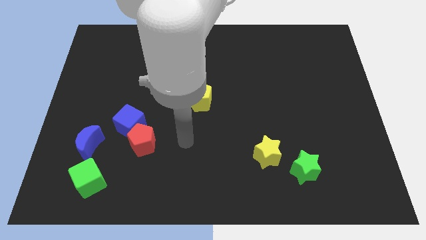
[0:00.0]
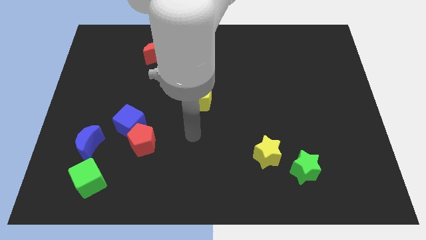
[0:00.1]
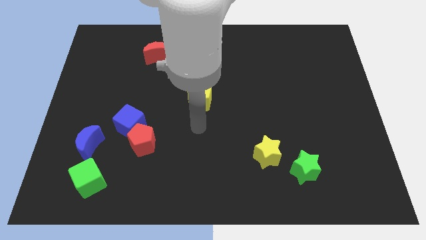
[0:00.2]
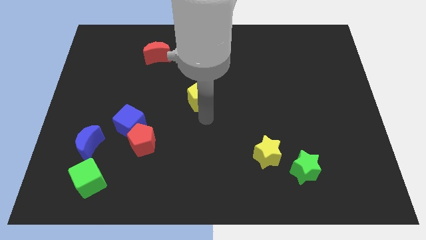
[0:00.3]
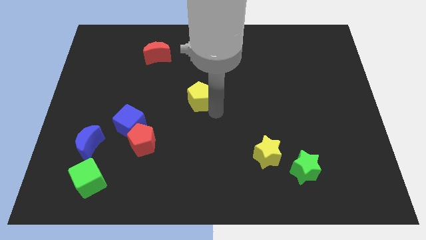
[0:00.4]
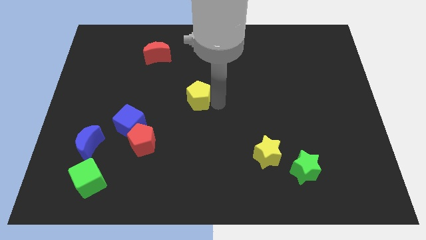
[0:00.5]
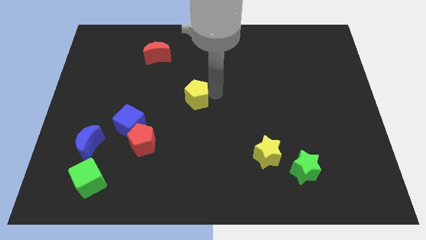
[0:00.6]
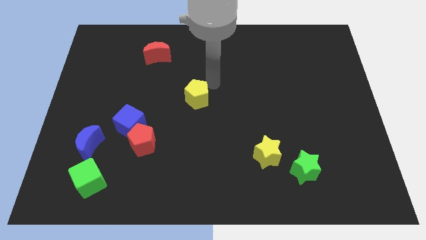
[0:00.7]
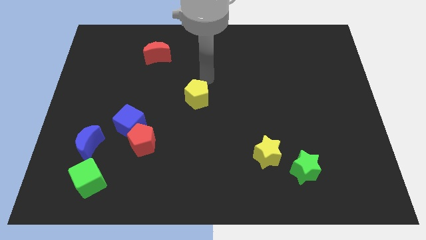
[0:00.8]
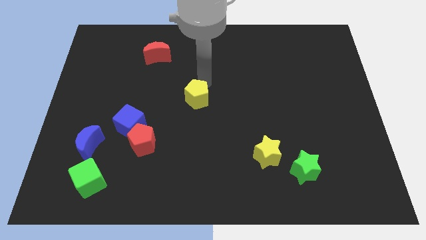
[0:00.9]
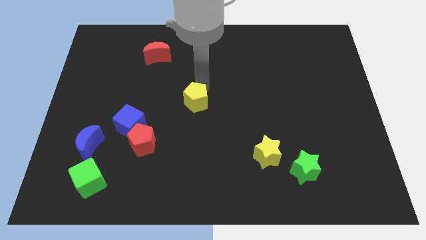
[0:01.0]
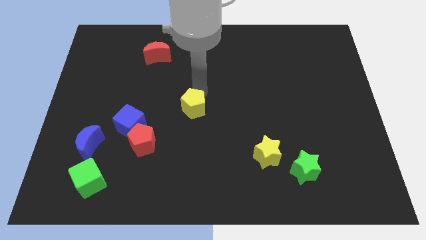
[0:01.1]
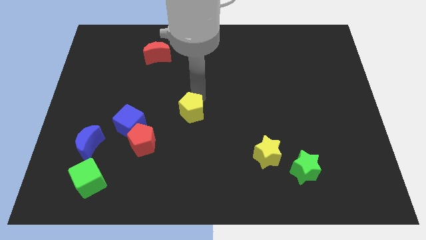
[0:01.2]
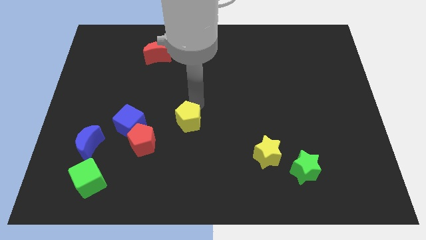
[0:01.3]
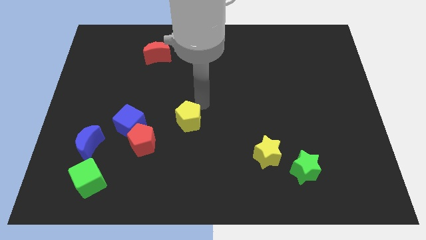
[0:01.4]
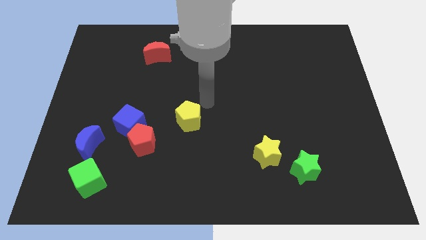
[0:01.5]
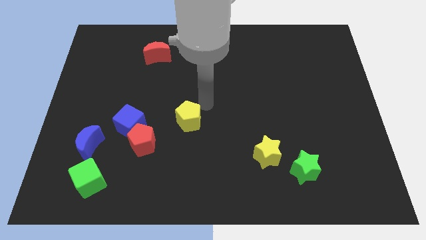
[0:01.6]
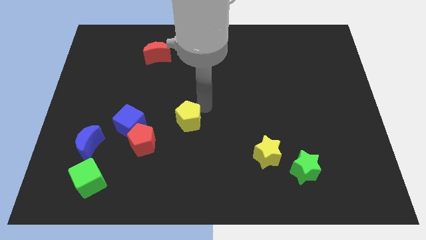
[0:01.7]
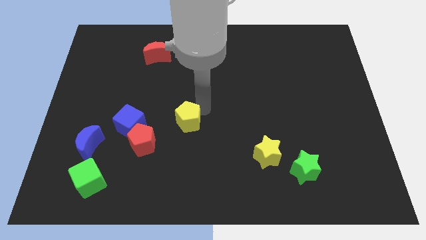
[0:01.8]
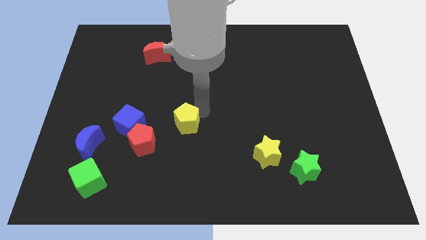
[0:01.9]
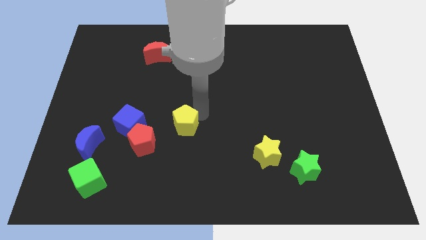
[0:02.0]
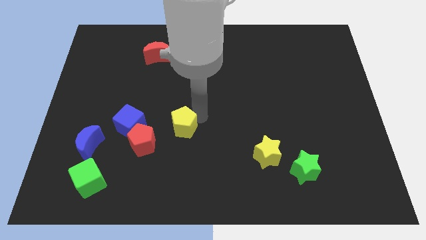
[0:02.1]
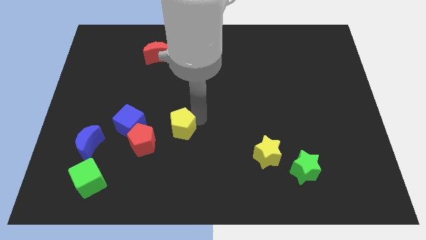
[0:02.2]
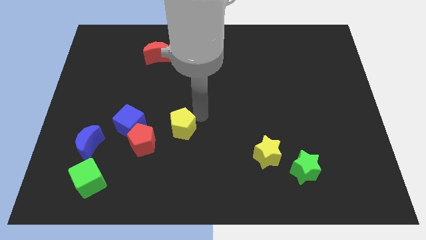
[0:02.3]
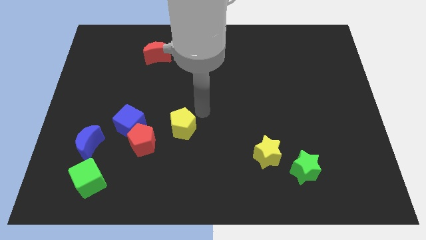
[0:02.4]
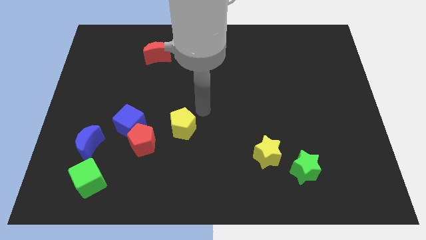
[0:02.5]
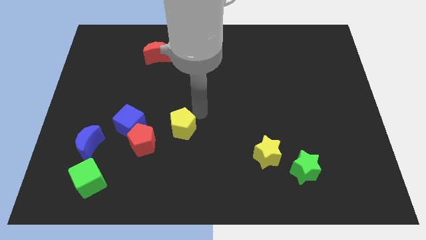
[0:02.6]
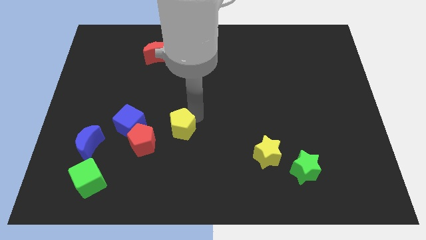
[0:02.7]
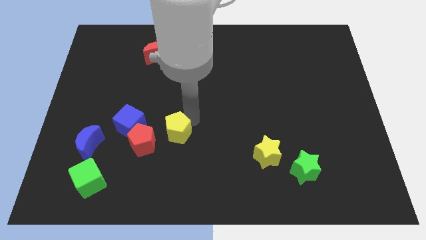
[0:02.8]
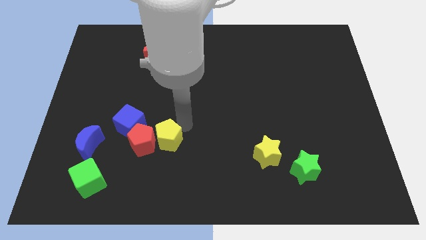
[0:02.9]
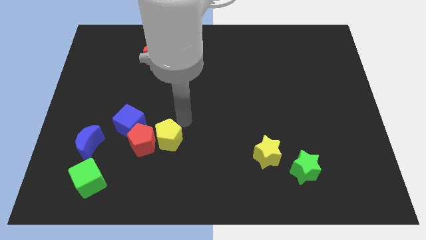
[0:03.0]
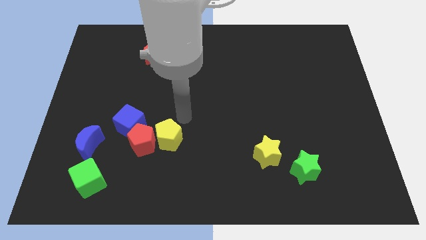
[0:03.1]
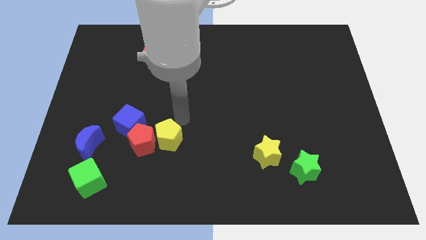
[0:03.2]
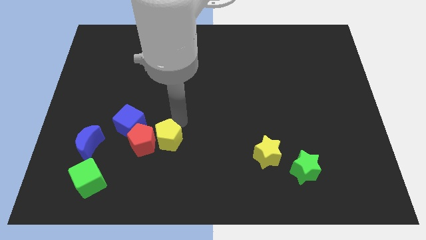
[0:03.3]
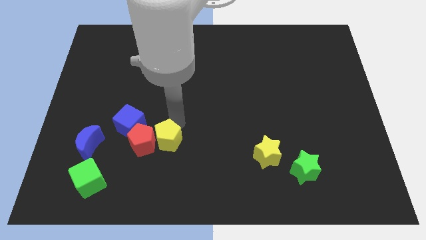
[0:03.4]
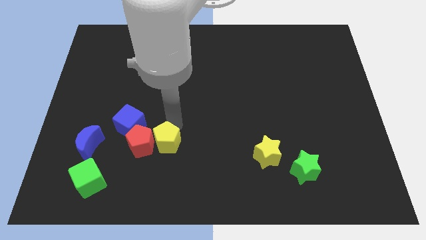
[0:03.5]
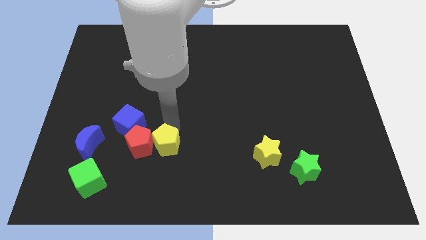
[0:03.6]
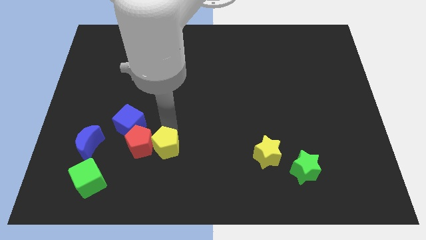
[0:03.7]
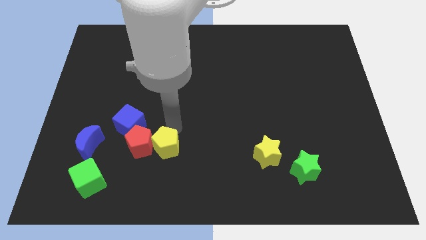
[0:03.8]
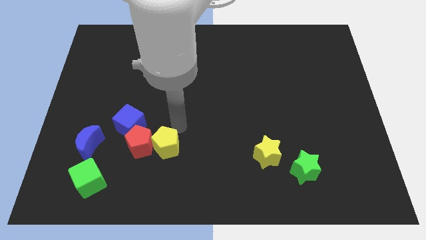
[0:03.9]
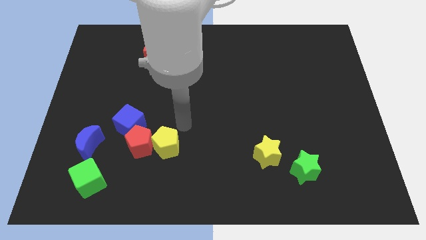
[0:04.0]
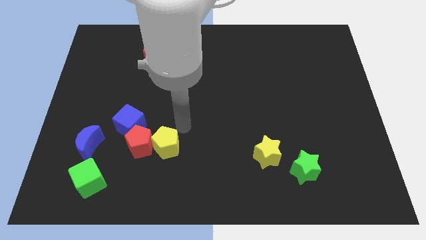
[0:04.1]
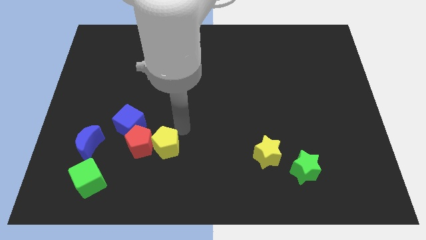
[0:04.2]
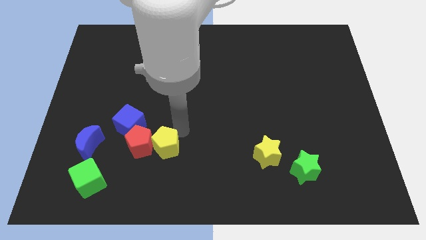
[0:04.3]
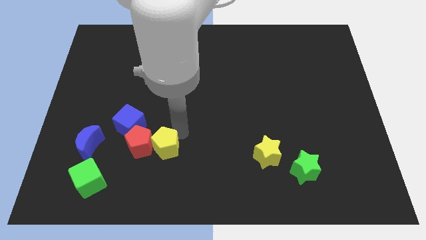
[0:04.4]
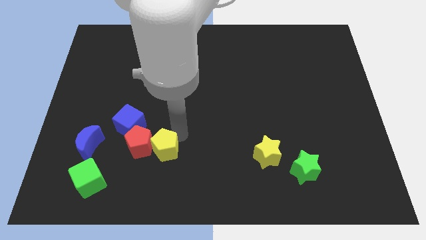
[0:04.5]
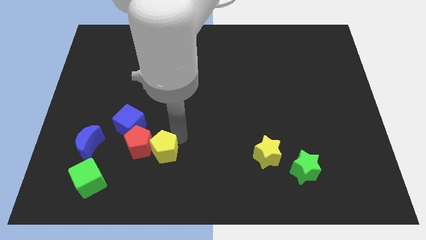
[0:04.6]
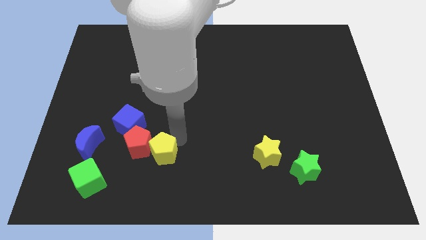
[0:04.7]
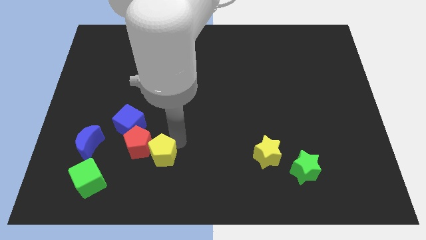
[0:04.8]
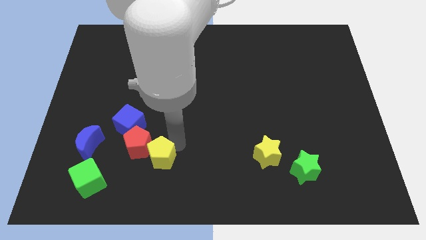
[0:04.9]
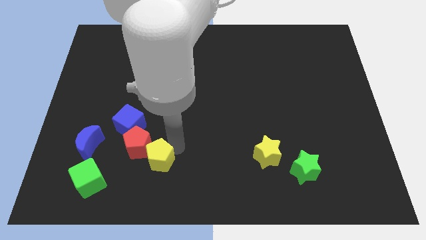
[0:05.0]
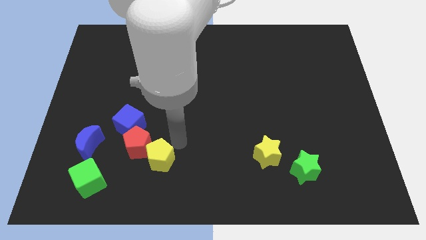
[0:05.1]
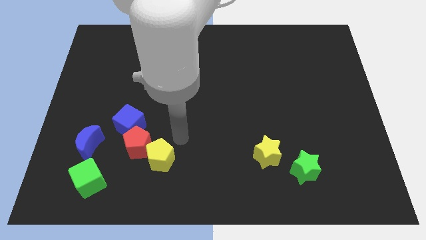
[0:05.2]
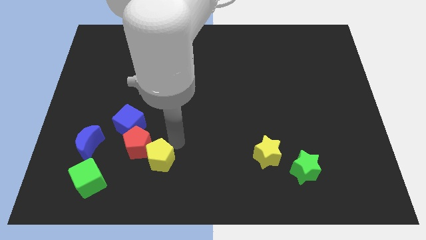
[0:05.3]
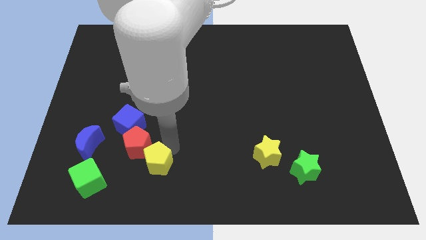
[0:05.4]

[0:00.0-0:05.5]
push the yellow pentagon to the right side of the green cube
